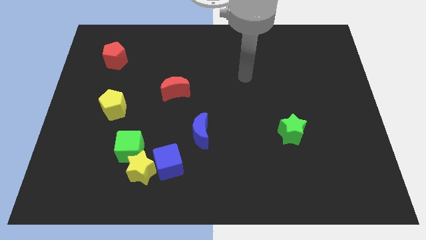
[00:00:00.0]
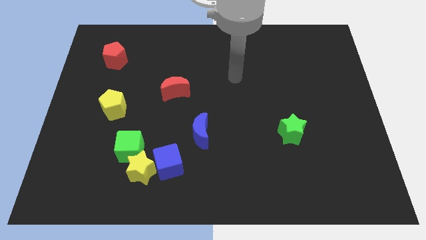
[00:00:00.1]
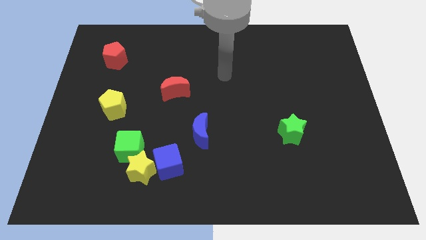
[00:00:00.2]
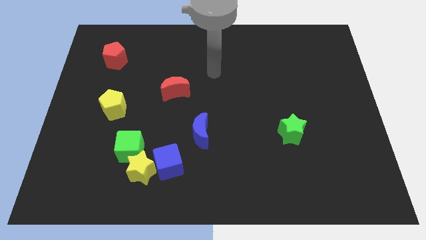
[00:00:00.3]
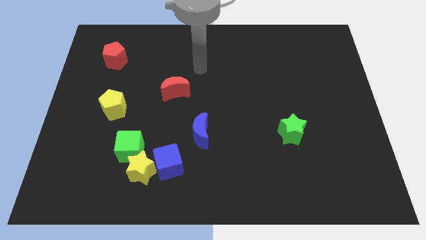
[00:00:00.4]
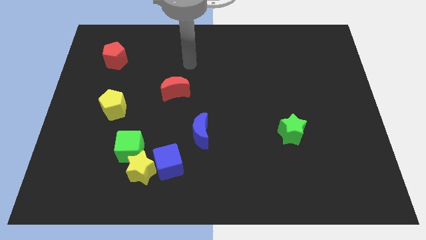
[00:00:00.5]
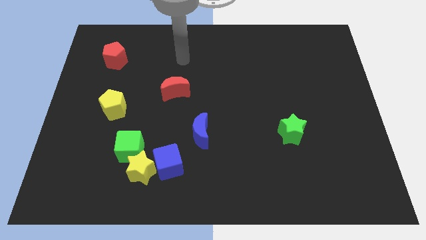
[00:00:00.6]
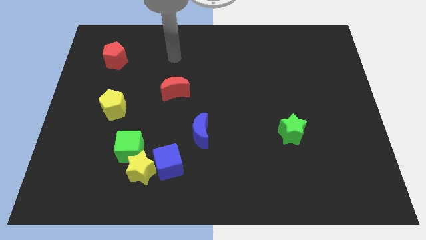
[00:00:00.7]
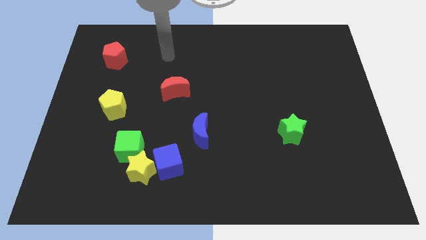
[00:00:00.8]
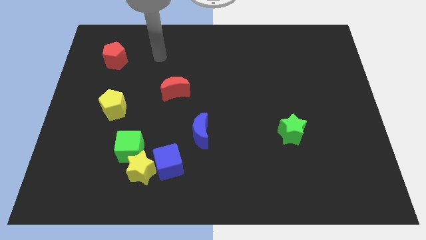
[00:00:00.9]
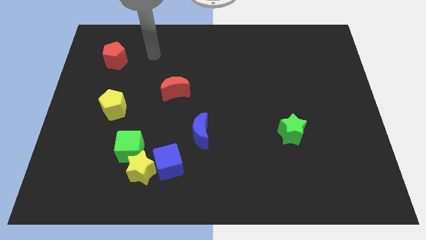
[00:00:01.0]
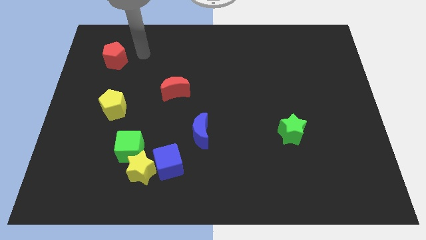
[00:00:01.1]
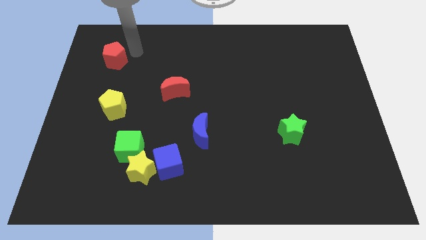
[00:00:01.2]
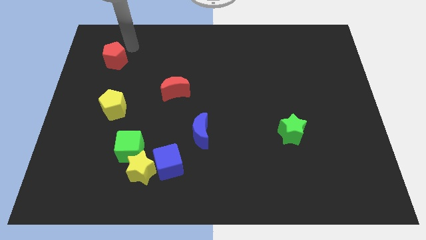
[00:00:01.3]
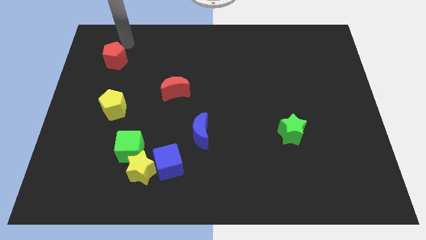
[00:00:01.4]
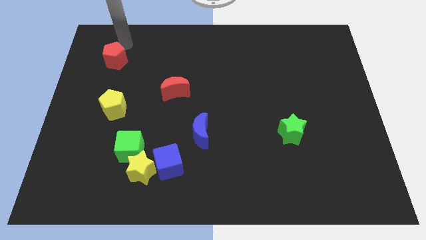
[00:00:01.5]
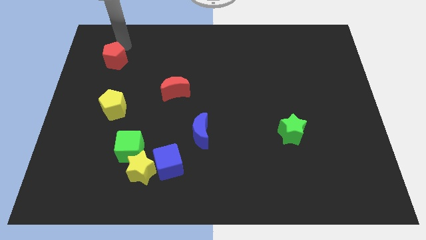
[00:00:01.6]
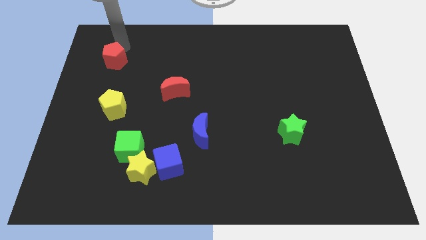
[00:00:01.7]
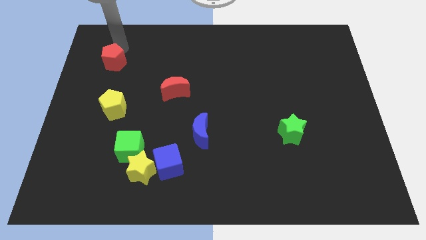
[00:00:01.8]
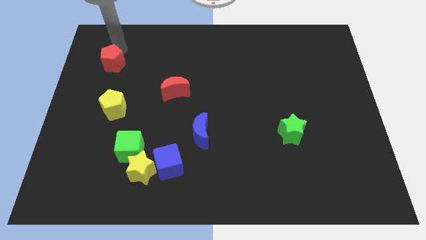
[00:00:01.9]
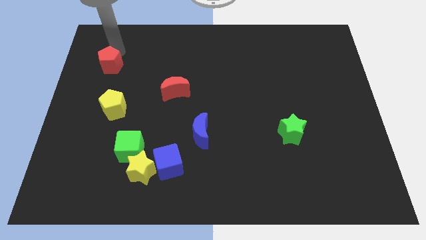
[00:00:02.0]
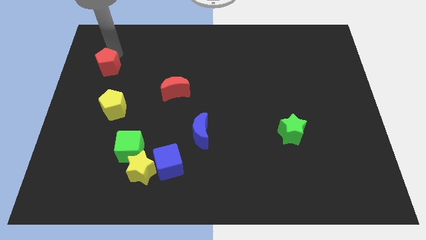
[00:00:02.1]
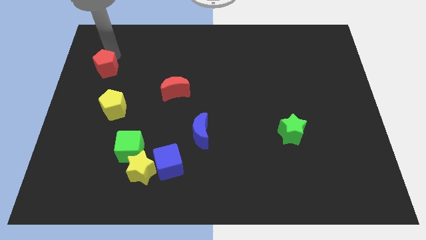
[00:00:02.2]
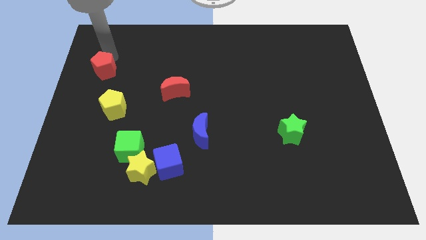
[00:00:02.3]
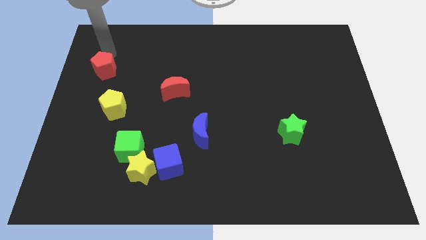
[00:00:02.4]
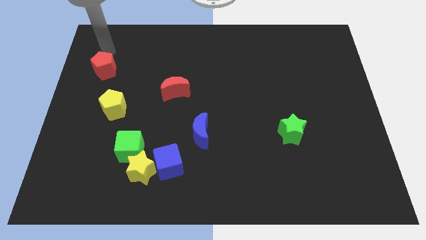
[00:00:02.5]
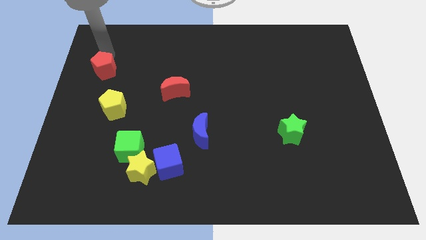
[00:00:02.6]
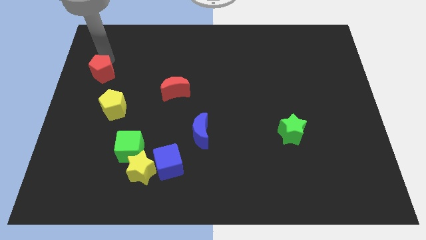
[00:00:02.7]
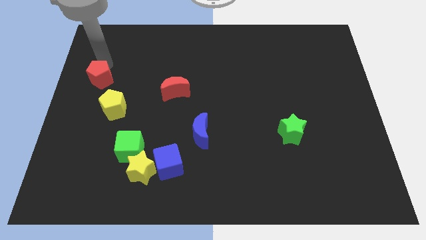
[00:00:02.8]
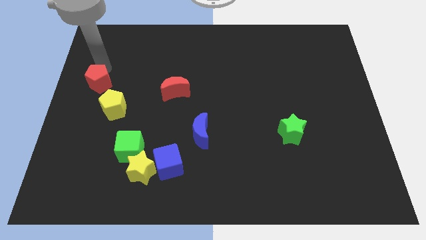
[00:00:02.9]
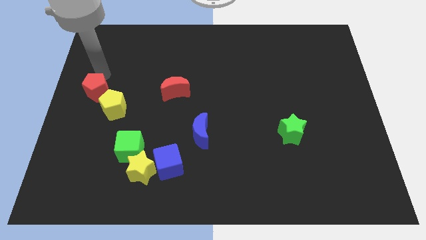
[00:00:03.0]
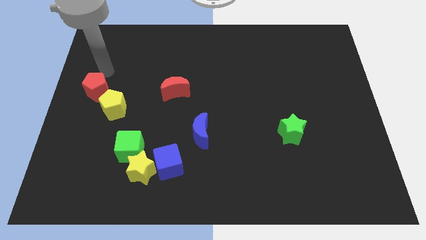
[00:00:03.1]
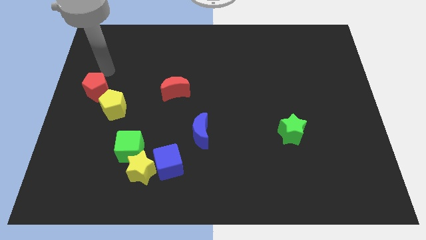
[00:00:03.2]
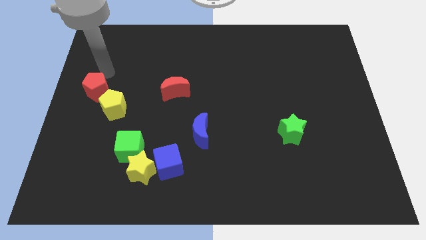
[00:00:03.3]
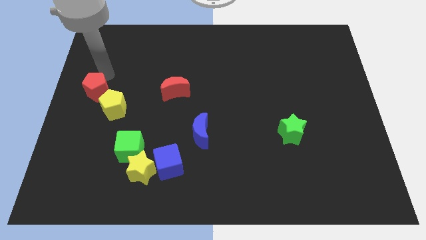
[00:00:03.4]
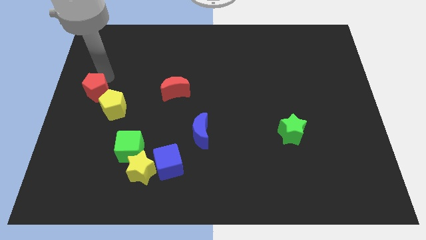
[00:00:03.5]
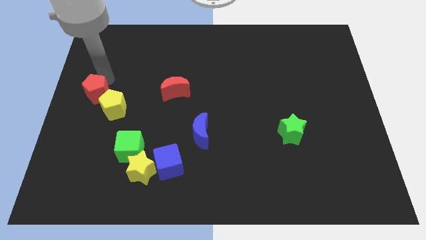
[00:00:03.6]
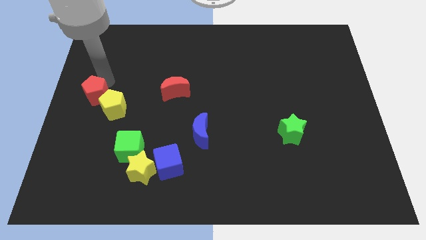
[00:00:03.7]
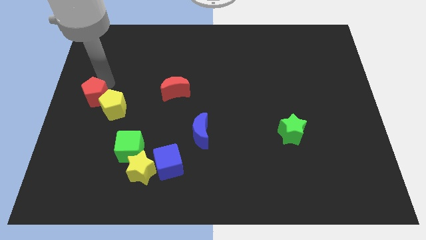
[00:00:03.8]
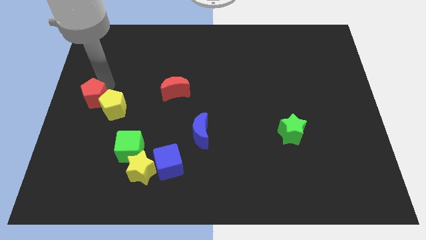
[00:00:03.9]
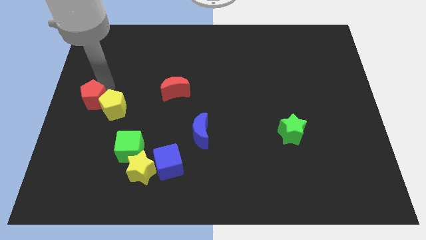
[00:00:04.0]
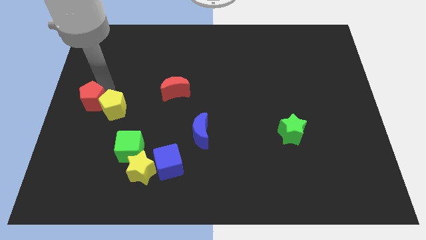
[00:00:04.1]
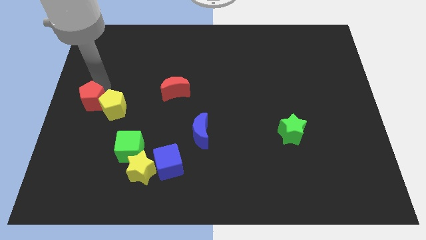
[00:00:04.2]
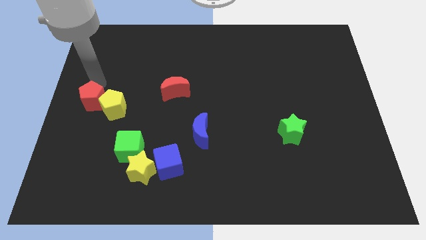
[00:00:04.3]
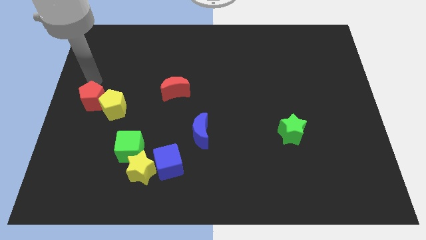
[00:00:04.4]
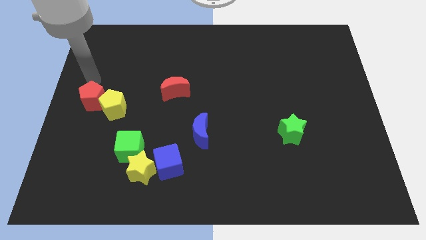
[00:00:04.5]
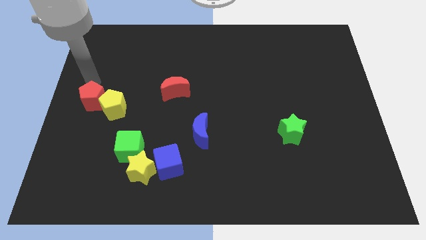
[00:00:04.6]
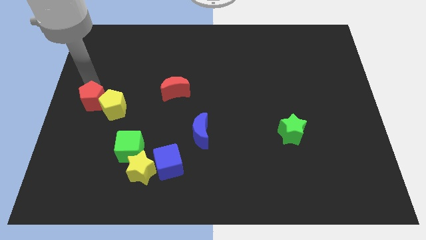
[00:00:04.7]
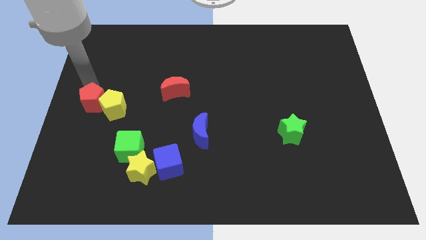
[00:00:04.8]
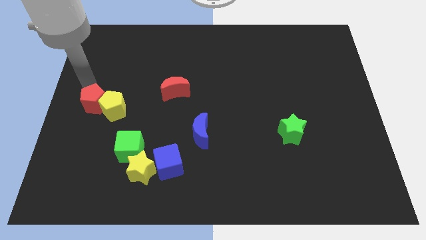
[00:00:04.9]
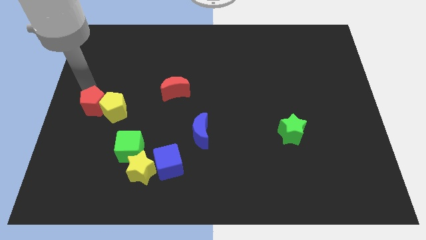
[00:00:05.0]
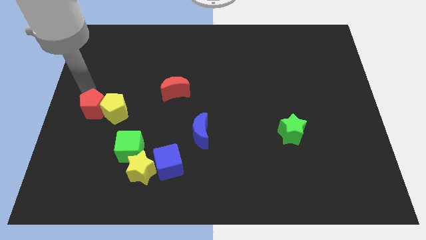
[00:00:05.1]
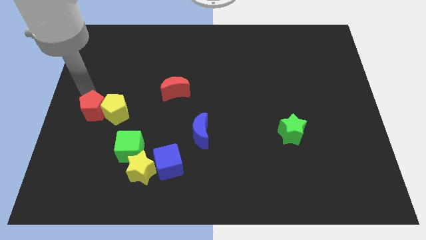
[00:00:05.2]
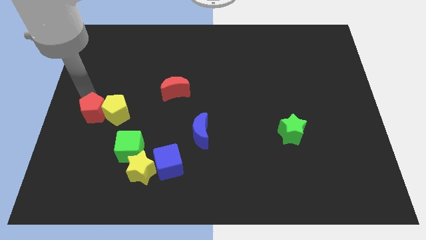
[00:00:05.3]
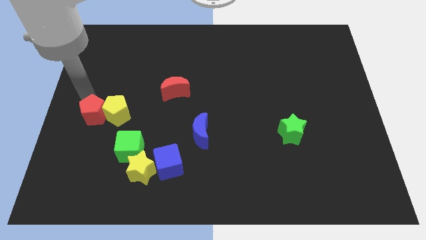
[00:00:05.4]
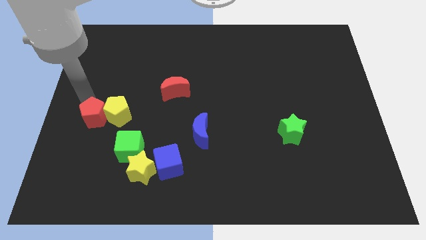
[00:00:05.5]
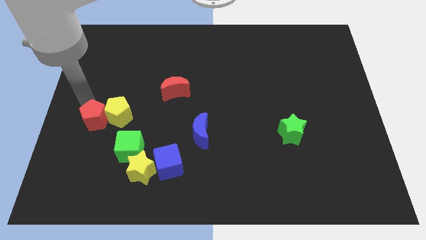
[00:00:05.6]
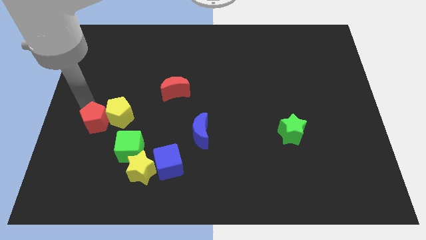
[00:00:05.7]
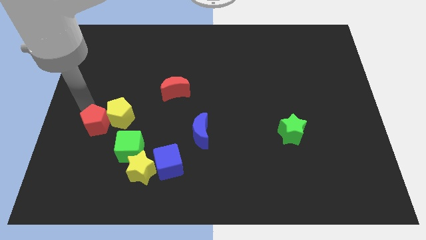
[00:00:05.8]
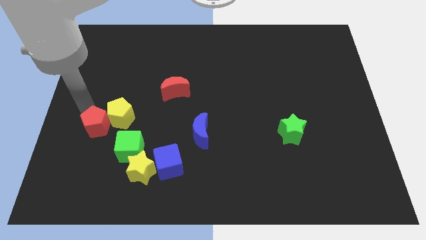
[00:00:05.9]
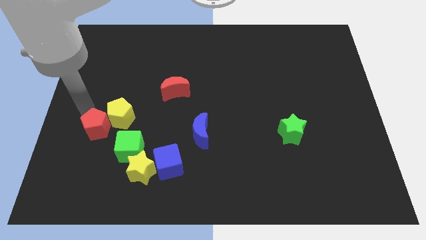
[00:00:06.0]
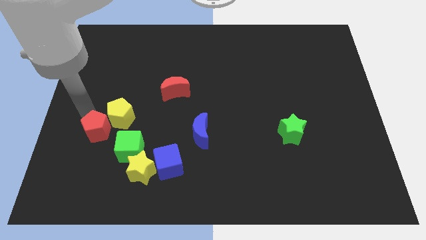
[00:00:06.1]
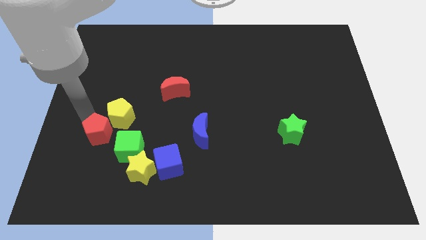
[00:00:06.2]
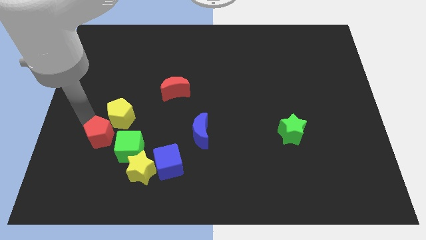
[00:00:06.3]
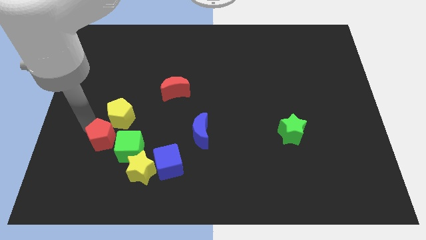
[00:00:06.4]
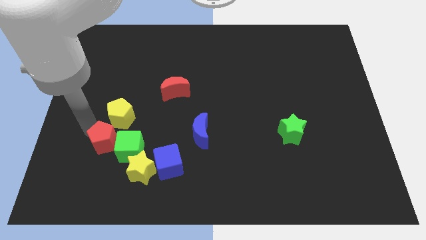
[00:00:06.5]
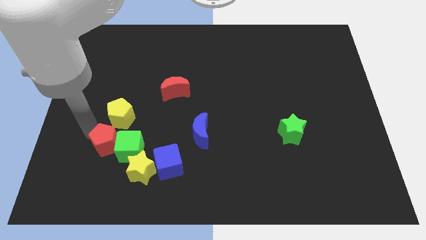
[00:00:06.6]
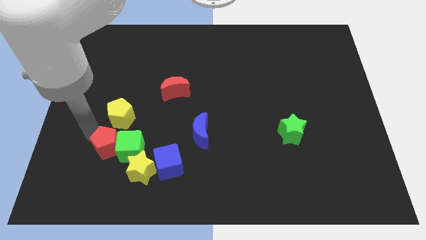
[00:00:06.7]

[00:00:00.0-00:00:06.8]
push the red pentagon diagonally down and to the left of the green cube

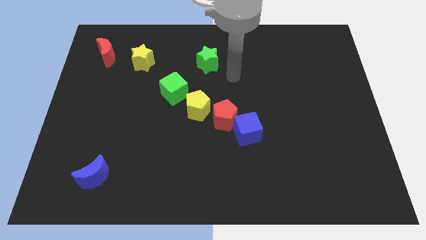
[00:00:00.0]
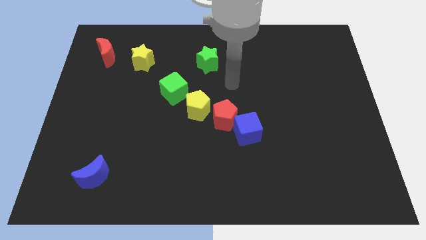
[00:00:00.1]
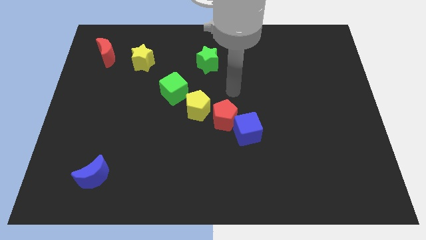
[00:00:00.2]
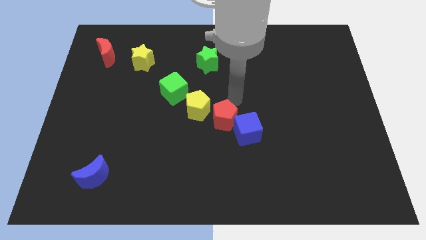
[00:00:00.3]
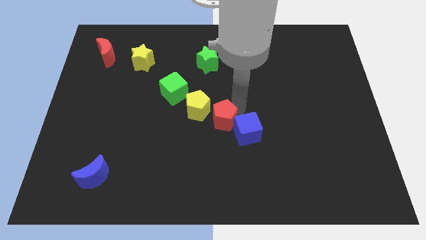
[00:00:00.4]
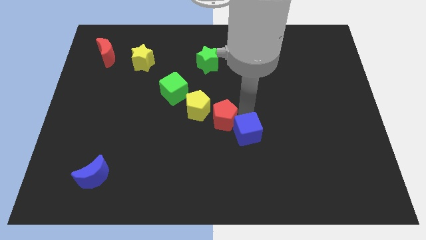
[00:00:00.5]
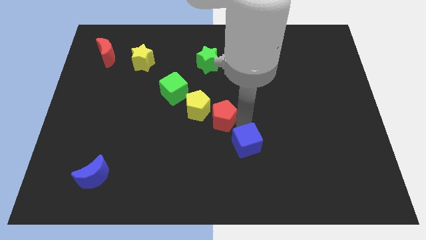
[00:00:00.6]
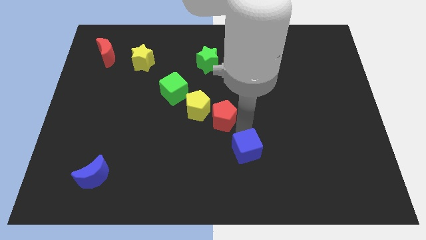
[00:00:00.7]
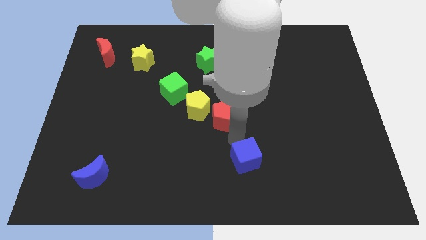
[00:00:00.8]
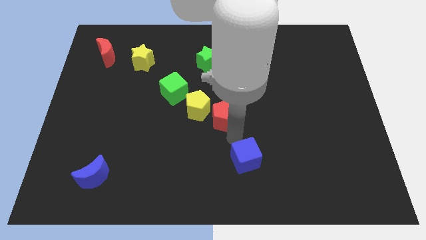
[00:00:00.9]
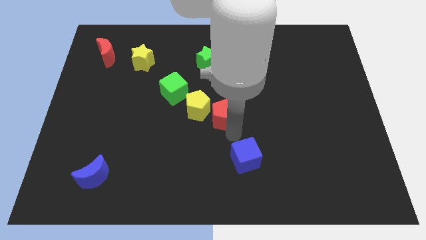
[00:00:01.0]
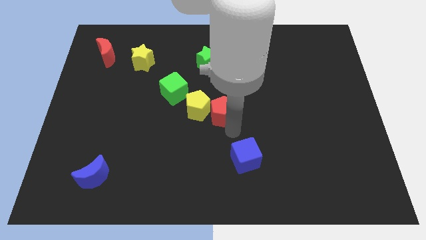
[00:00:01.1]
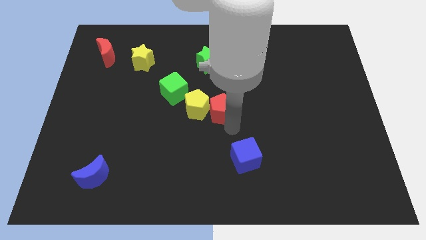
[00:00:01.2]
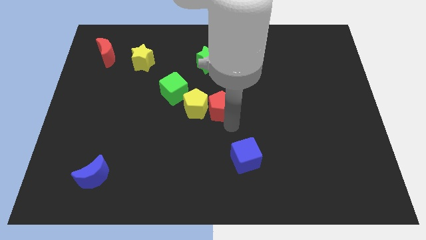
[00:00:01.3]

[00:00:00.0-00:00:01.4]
slide the red pentagon to the bottom side of the green star
